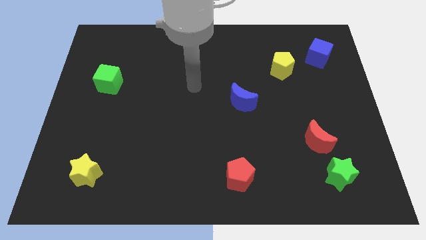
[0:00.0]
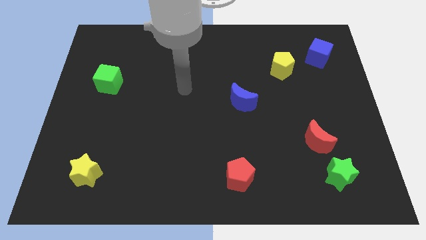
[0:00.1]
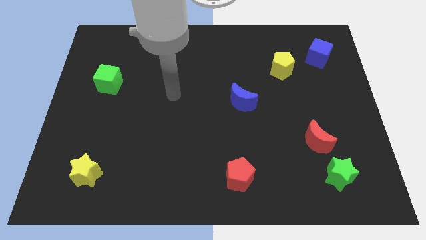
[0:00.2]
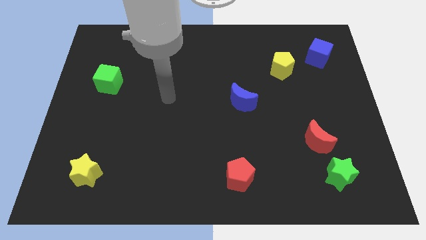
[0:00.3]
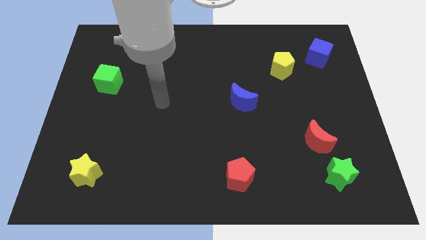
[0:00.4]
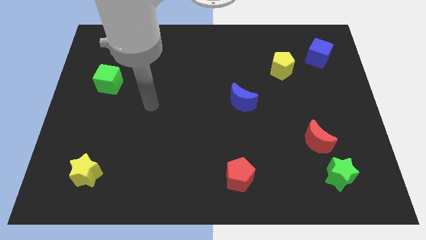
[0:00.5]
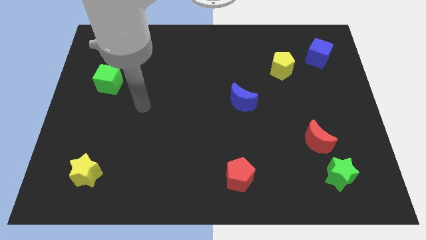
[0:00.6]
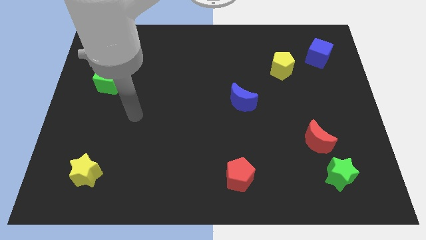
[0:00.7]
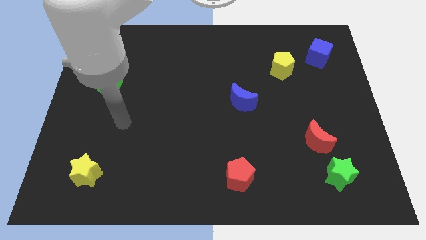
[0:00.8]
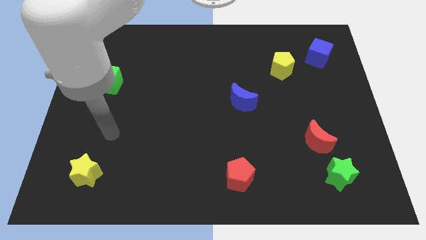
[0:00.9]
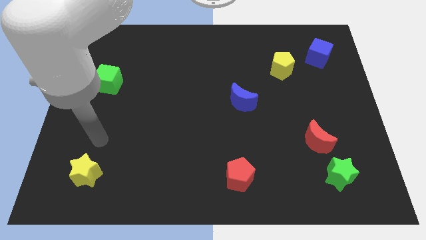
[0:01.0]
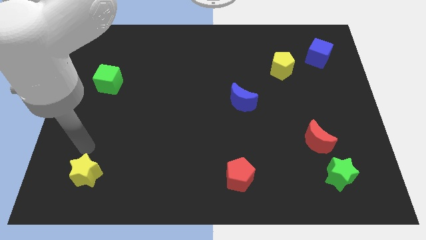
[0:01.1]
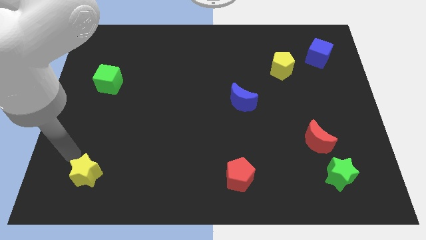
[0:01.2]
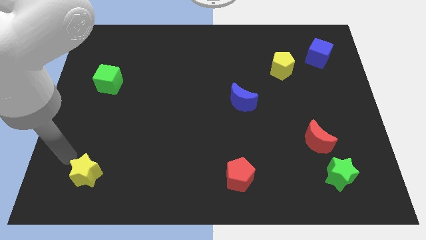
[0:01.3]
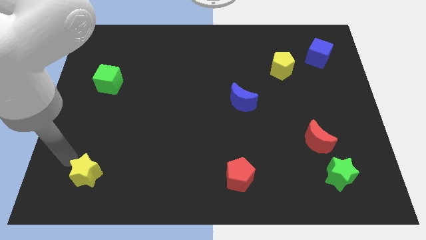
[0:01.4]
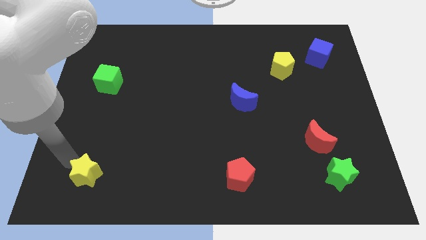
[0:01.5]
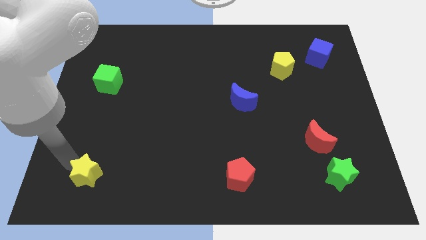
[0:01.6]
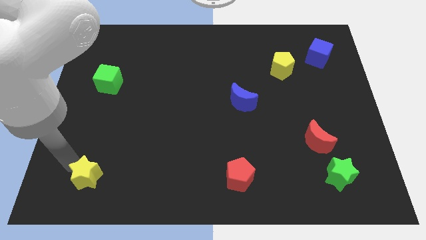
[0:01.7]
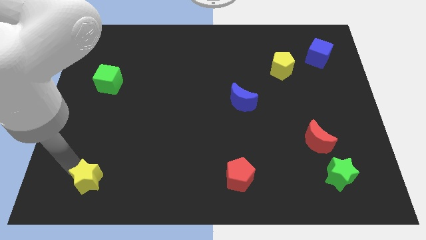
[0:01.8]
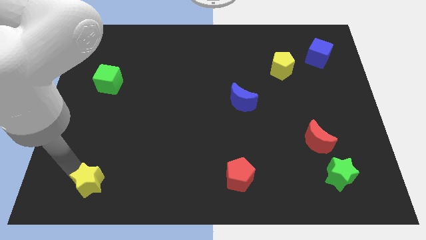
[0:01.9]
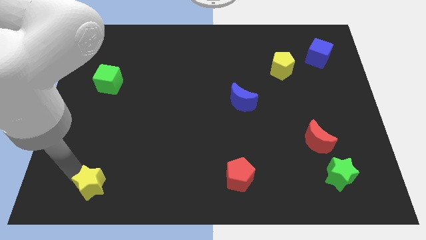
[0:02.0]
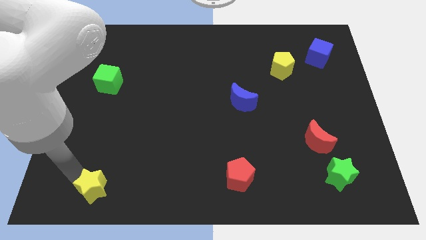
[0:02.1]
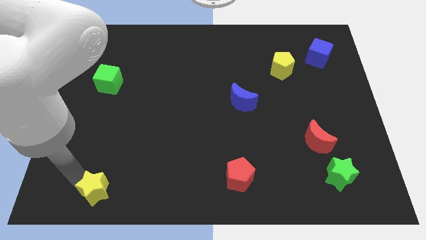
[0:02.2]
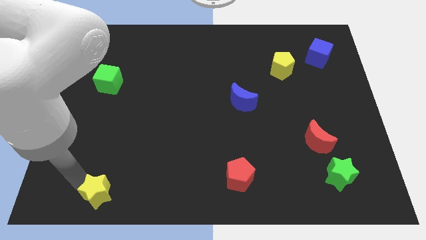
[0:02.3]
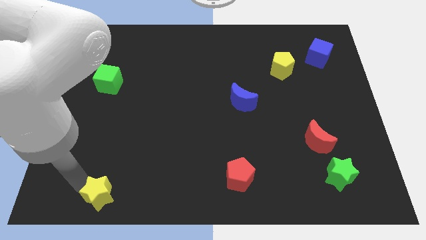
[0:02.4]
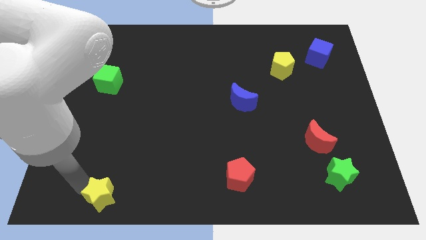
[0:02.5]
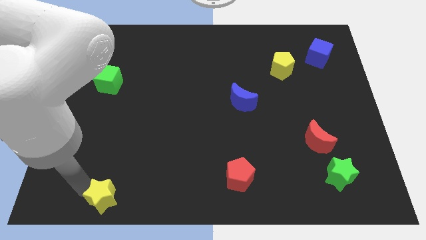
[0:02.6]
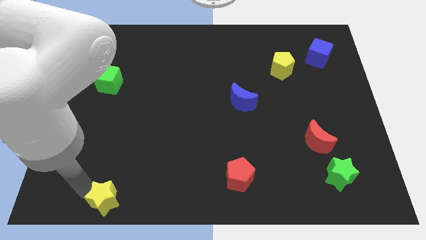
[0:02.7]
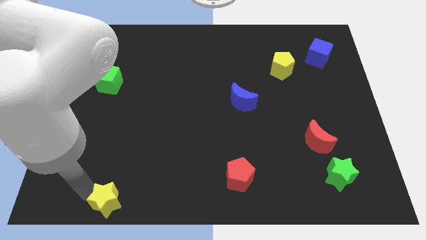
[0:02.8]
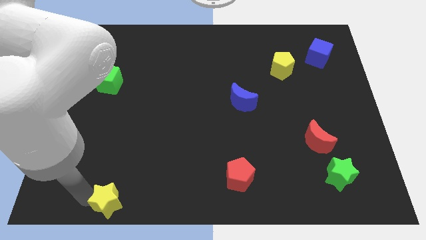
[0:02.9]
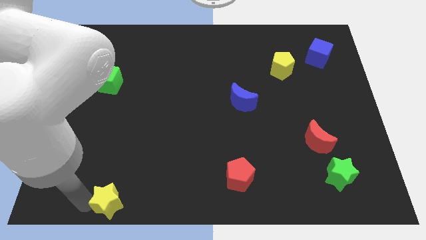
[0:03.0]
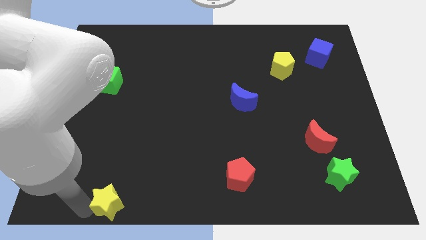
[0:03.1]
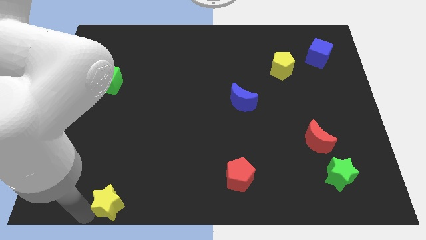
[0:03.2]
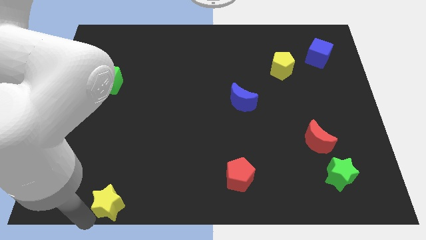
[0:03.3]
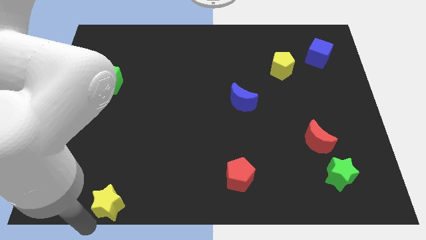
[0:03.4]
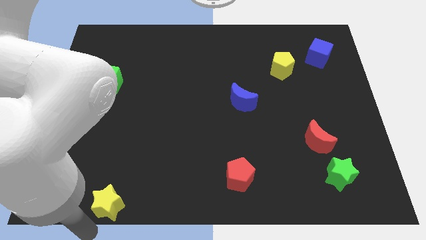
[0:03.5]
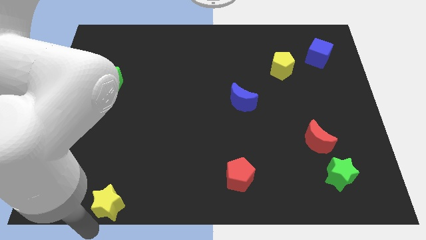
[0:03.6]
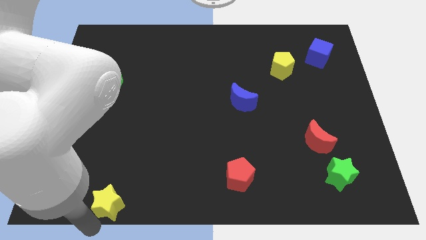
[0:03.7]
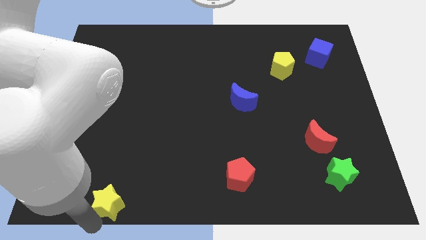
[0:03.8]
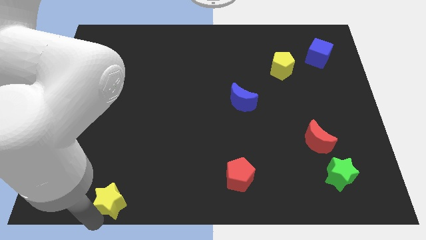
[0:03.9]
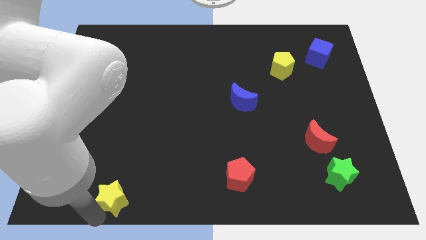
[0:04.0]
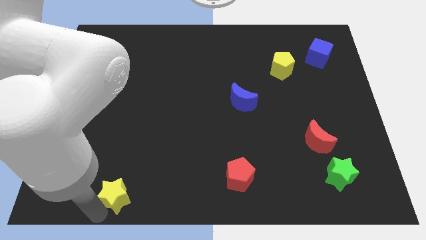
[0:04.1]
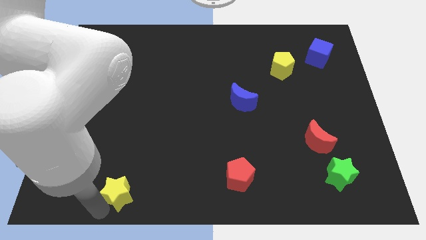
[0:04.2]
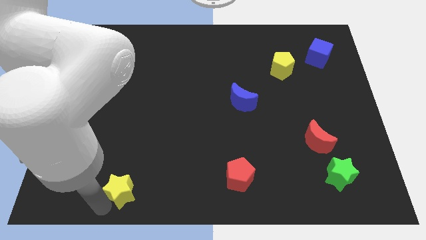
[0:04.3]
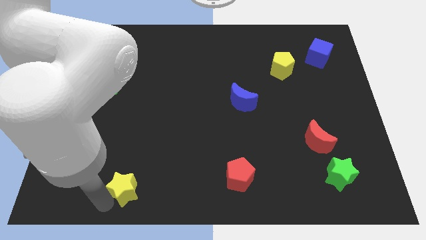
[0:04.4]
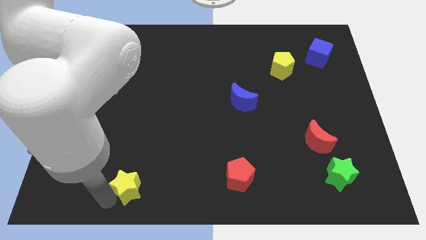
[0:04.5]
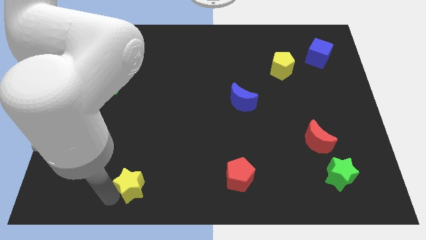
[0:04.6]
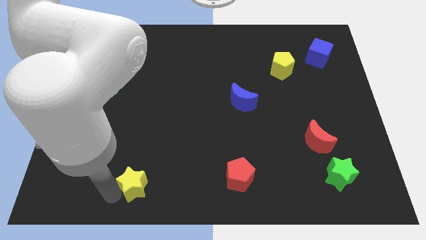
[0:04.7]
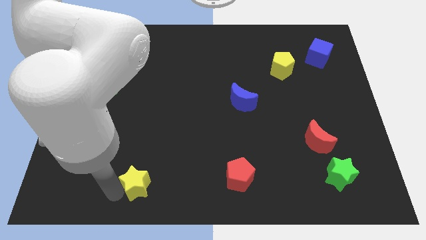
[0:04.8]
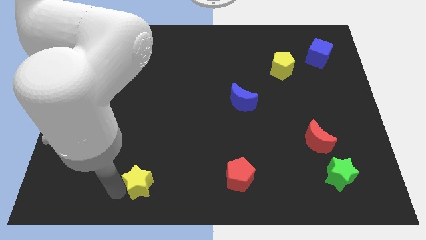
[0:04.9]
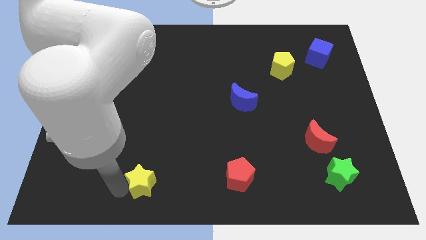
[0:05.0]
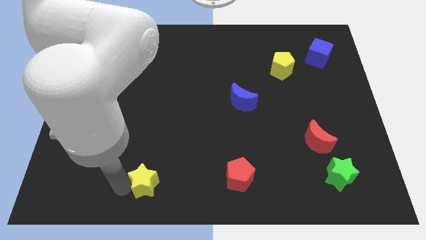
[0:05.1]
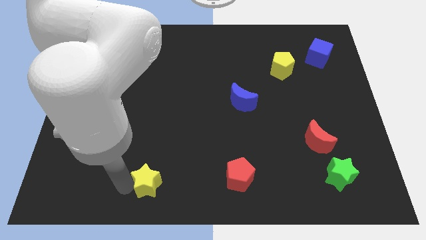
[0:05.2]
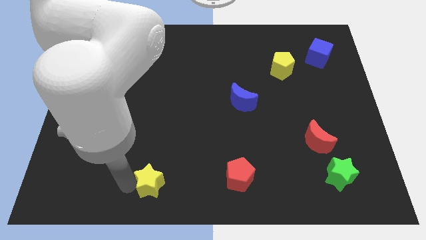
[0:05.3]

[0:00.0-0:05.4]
push the yellow star to the bottom

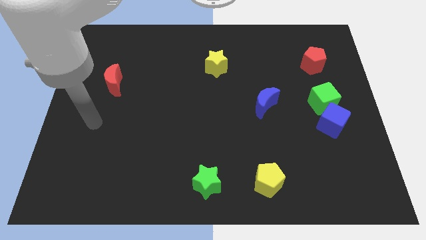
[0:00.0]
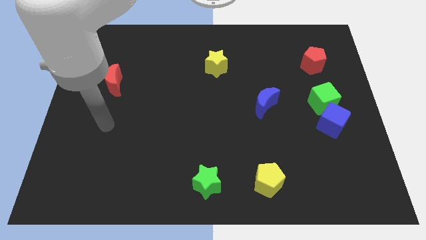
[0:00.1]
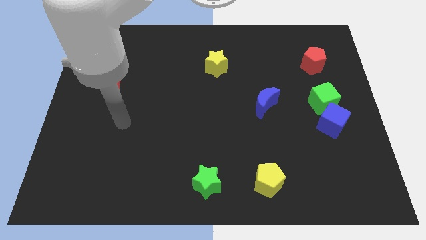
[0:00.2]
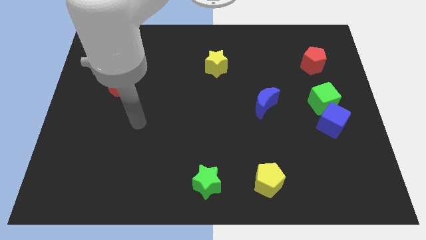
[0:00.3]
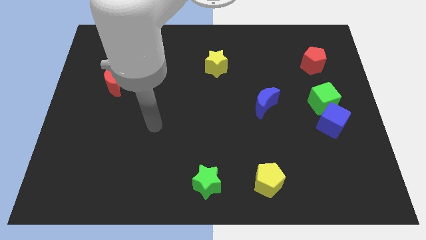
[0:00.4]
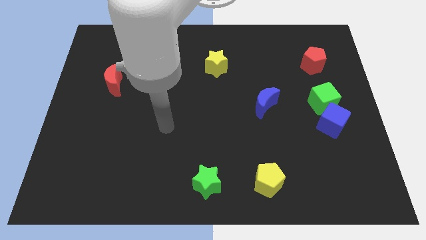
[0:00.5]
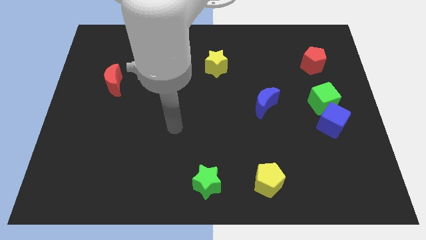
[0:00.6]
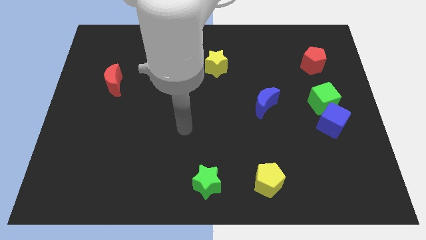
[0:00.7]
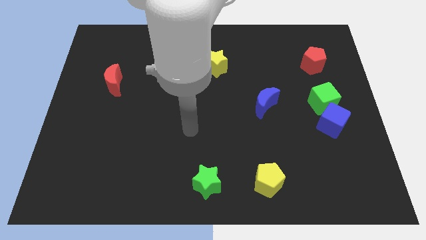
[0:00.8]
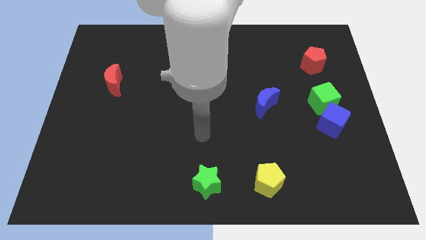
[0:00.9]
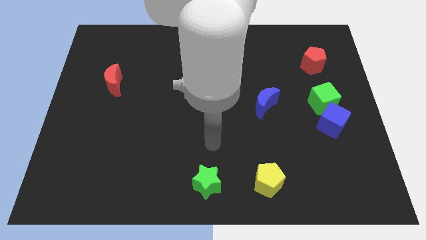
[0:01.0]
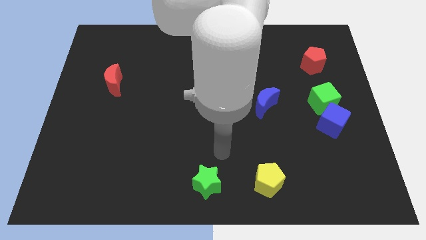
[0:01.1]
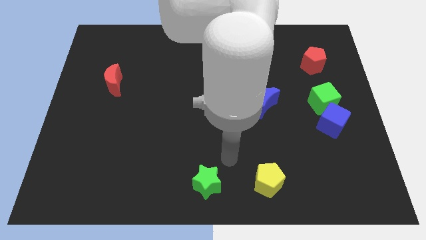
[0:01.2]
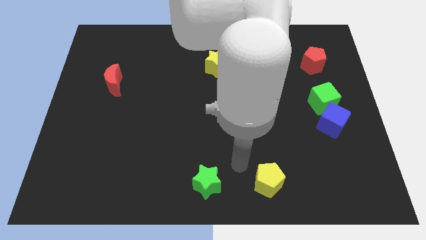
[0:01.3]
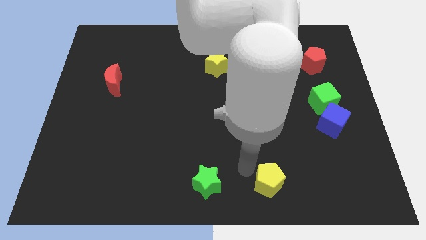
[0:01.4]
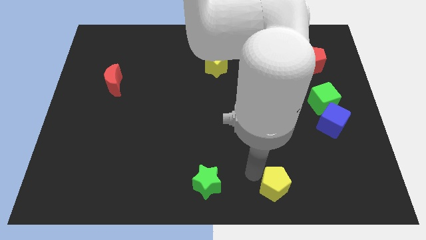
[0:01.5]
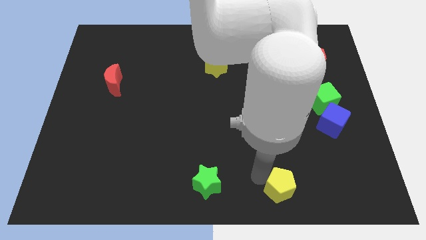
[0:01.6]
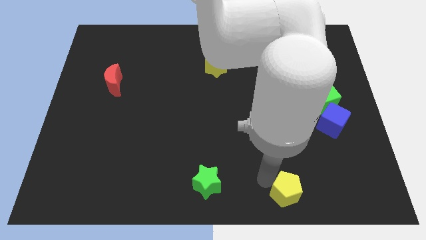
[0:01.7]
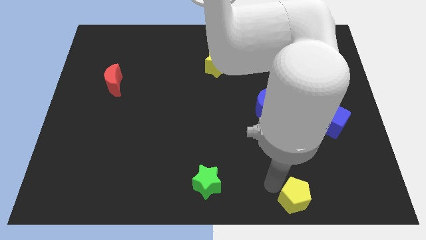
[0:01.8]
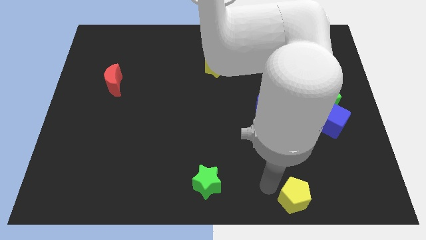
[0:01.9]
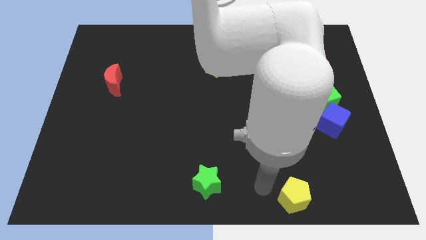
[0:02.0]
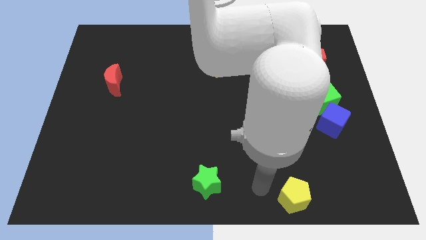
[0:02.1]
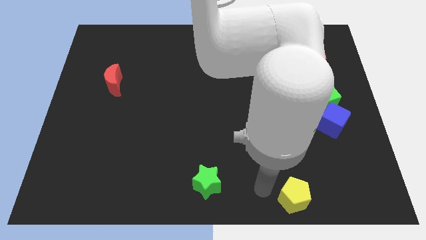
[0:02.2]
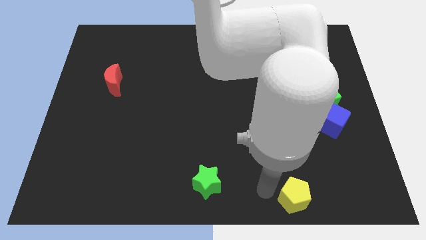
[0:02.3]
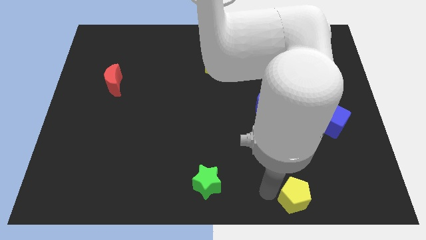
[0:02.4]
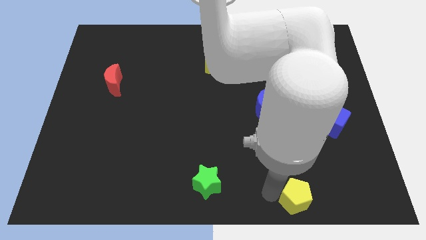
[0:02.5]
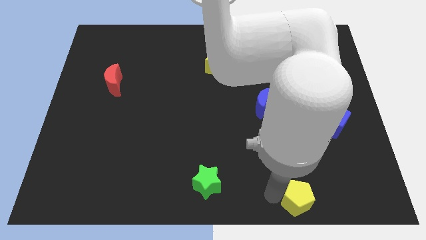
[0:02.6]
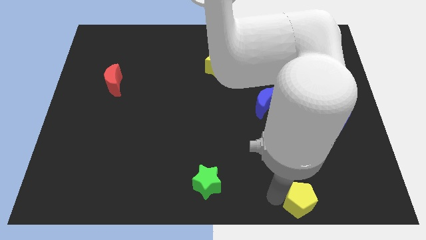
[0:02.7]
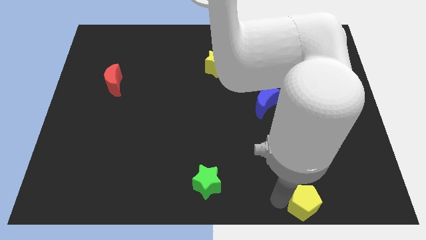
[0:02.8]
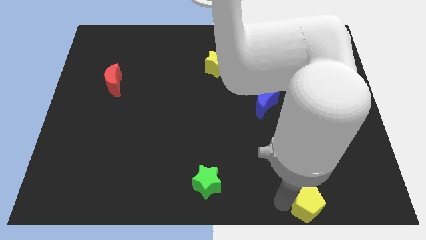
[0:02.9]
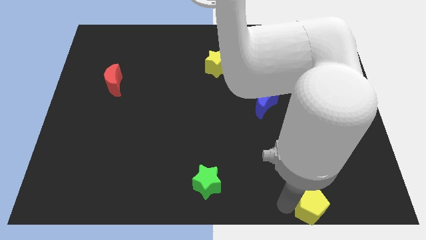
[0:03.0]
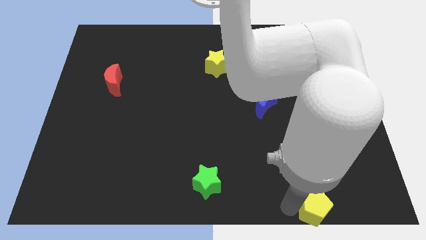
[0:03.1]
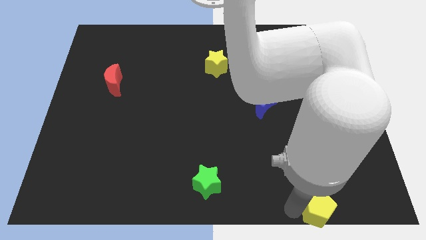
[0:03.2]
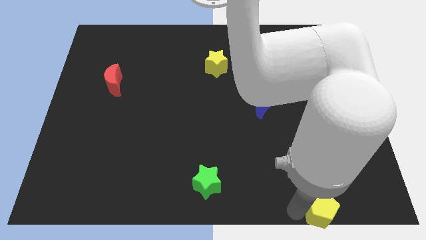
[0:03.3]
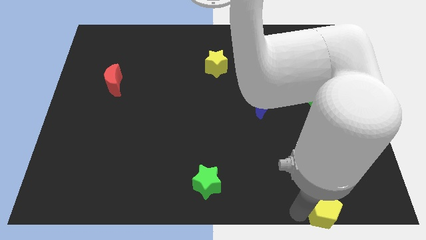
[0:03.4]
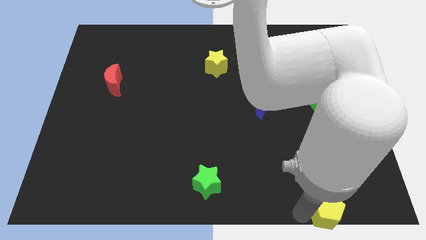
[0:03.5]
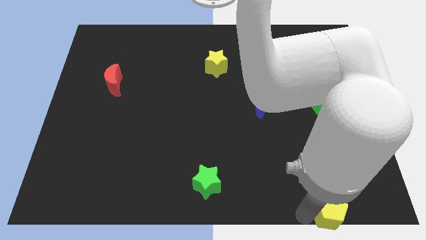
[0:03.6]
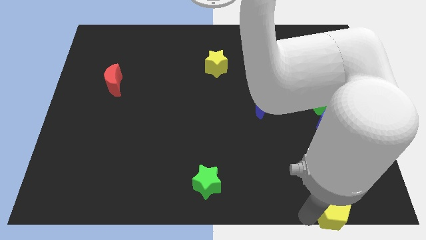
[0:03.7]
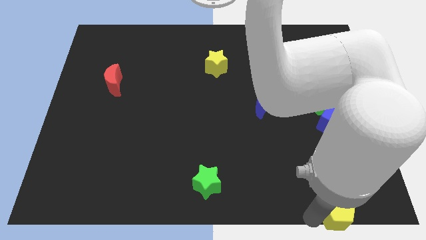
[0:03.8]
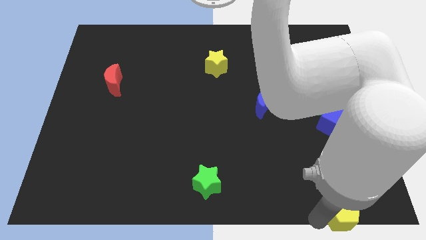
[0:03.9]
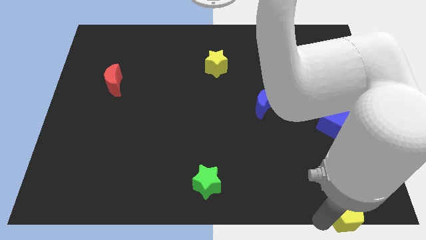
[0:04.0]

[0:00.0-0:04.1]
move the yellow pentagon to the bottom right corner
